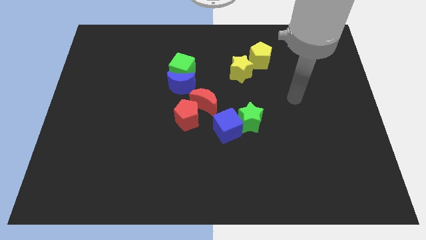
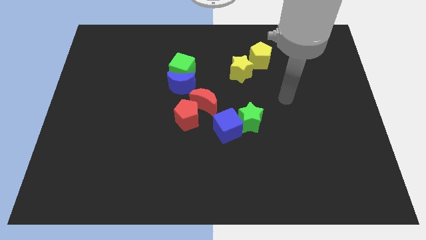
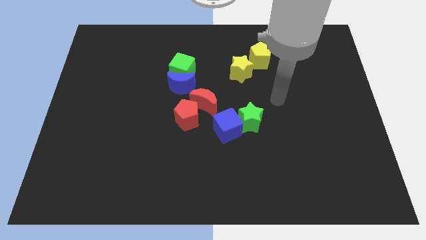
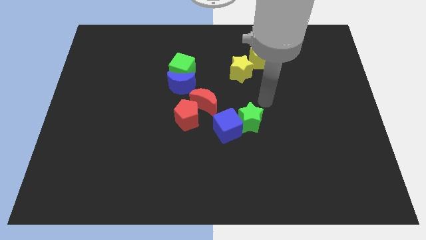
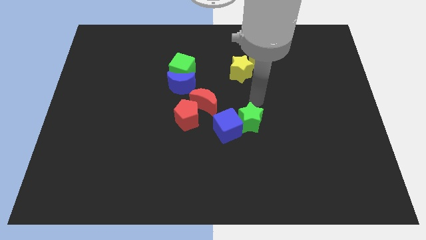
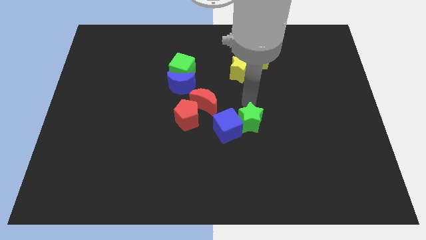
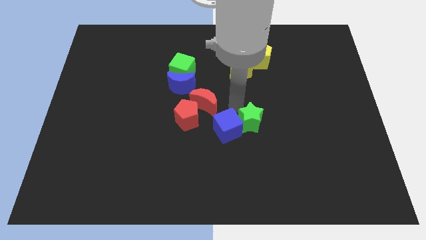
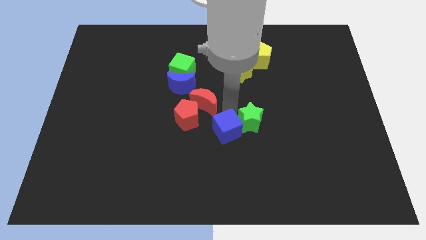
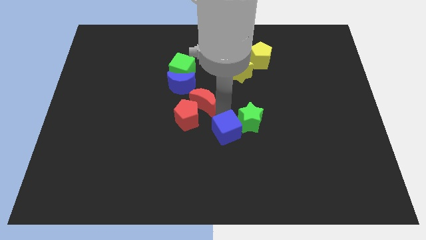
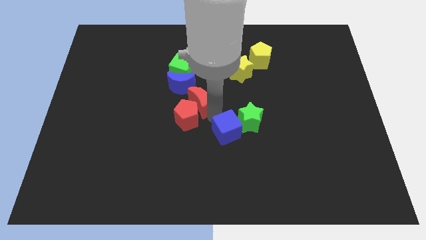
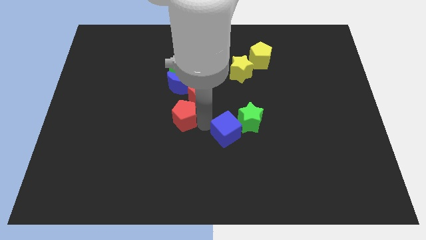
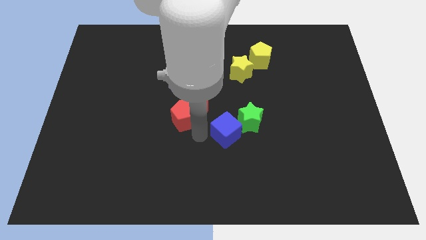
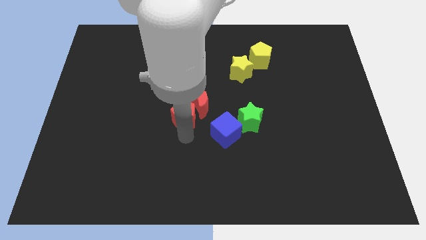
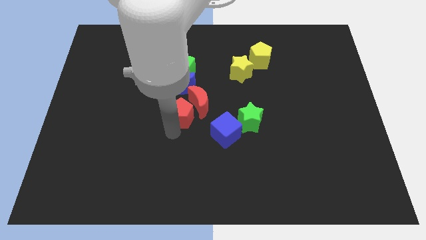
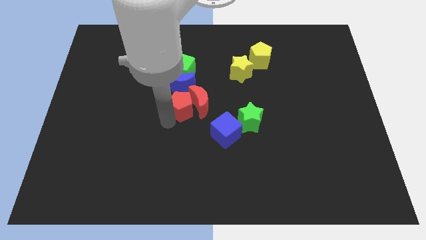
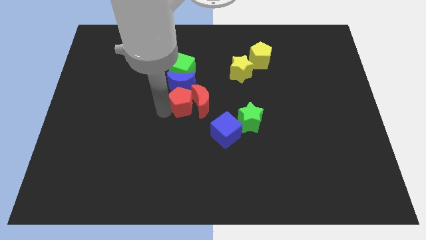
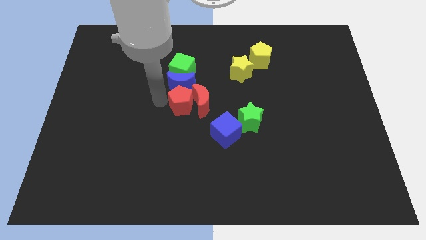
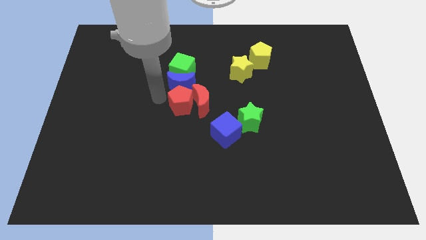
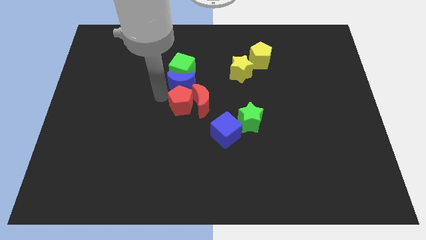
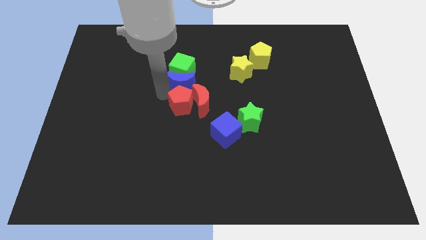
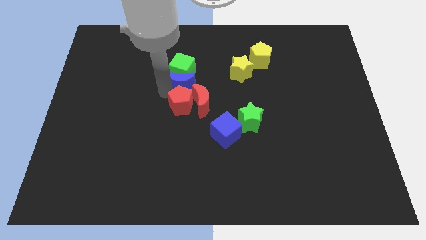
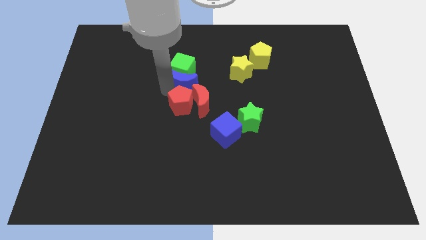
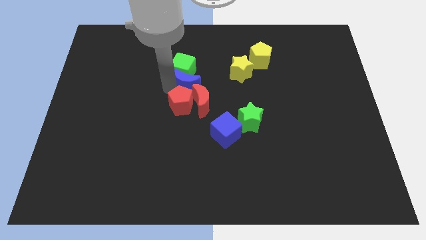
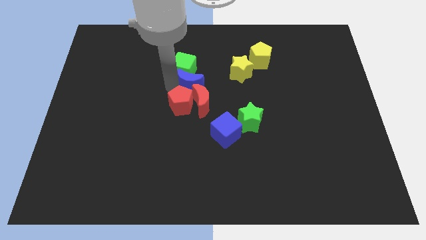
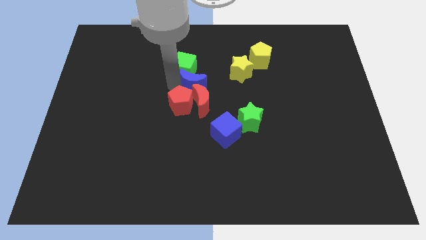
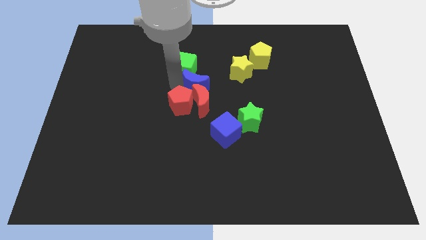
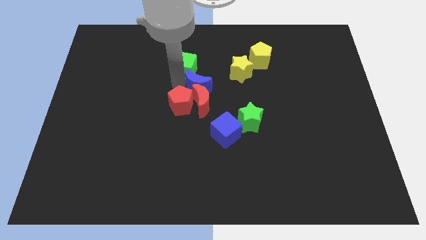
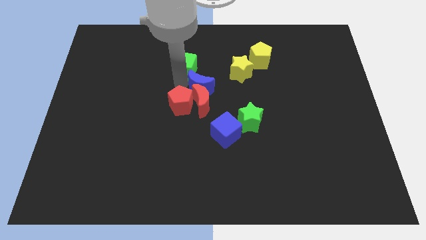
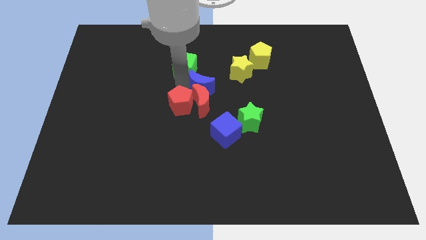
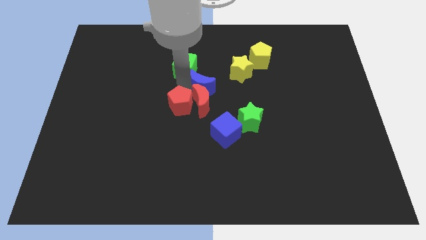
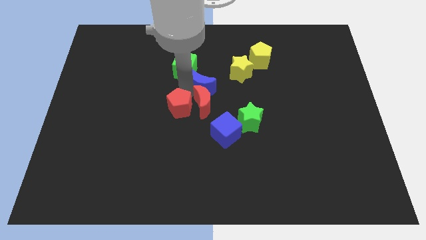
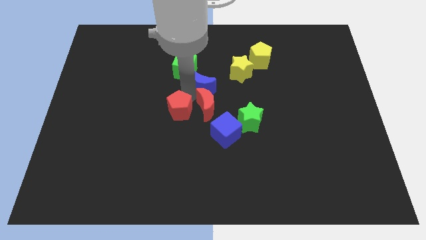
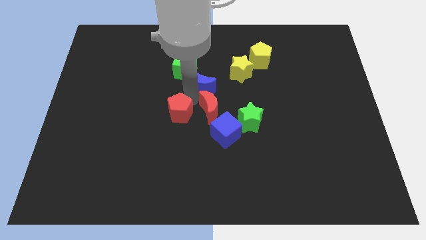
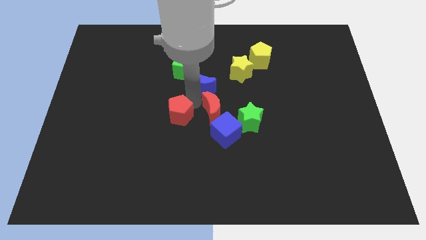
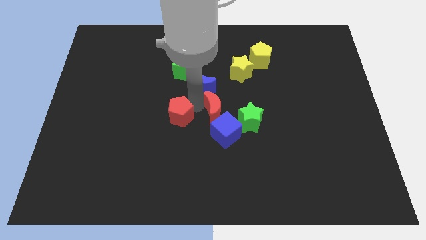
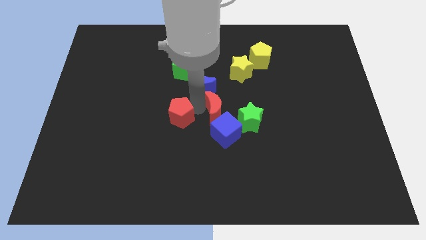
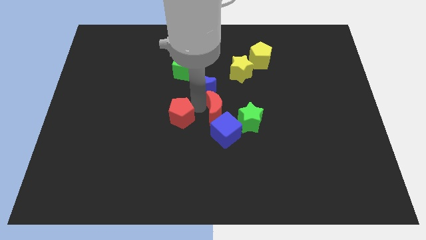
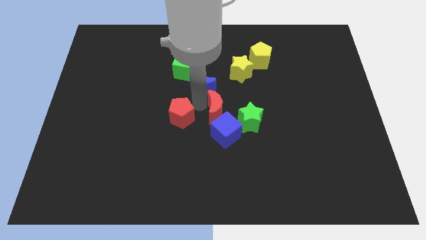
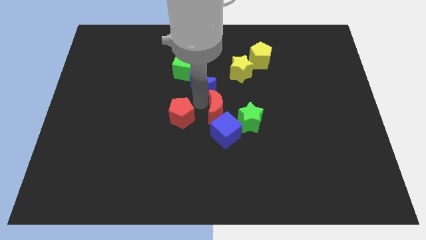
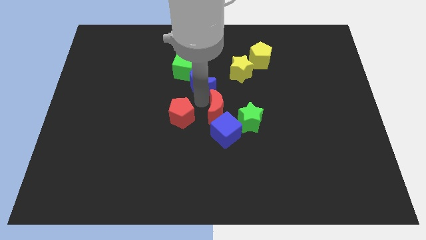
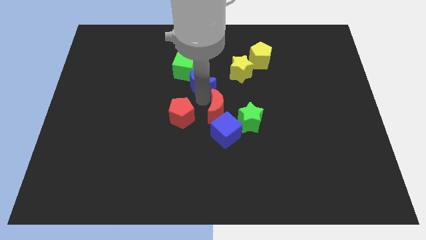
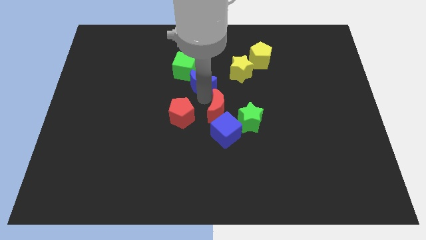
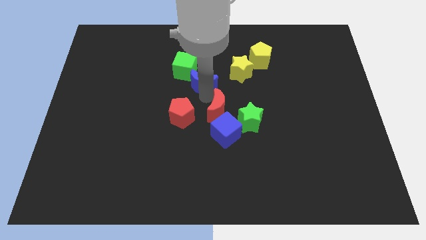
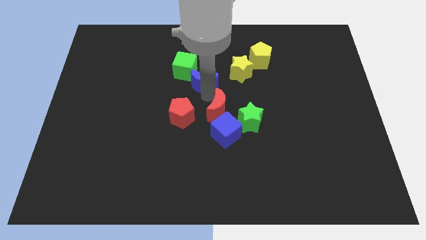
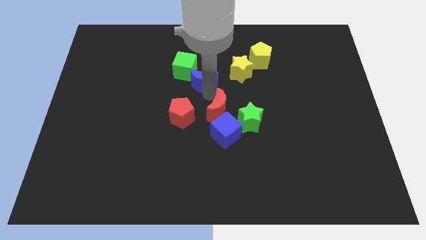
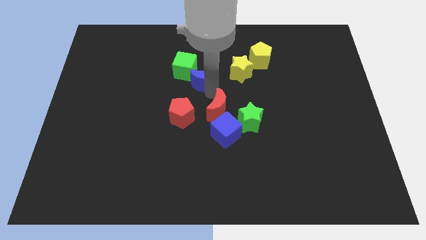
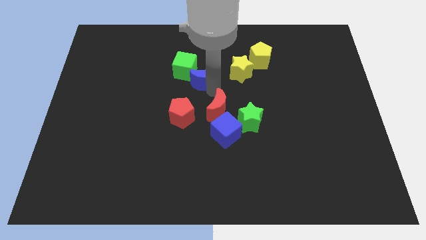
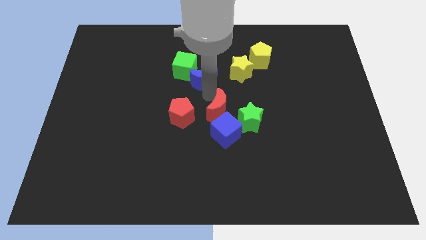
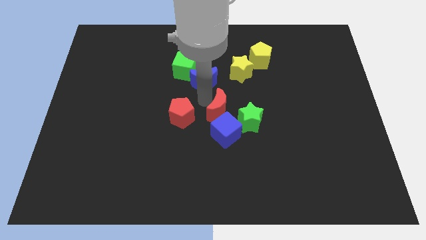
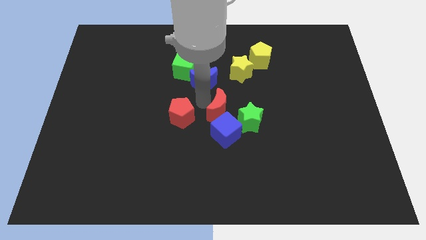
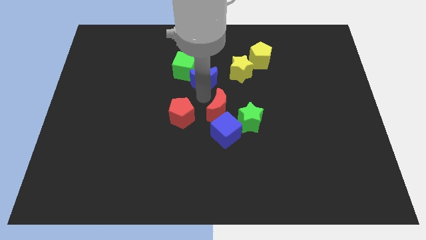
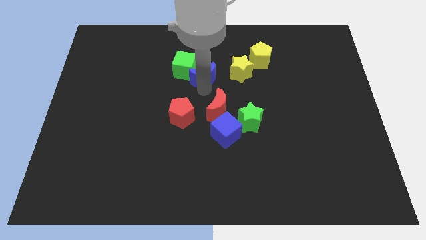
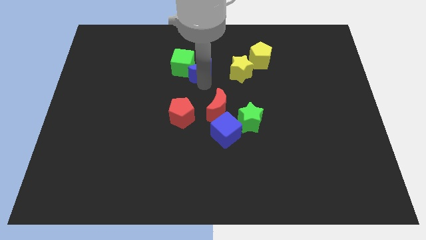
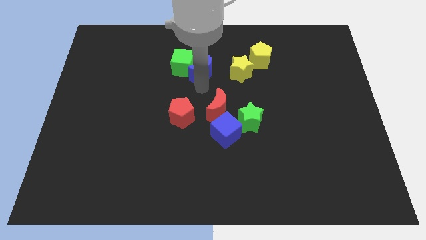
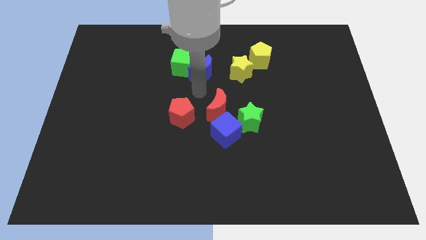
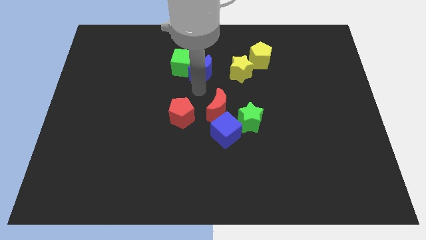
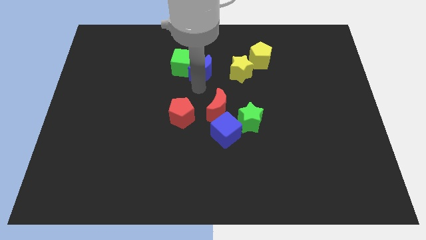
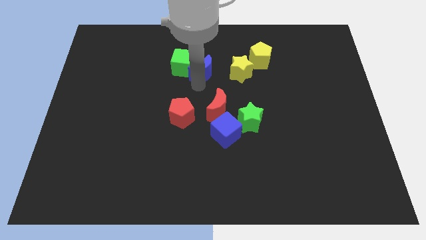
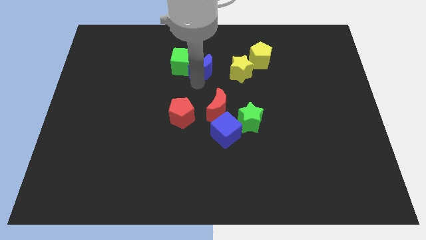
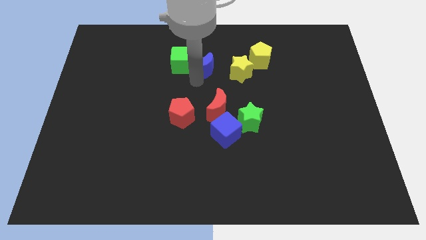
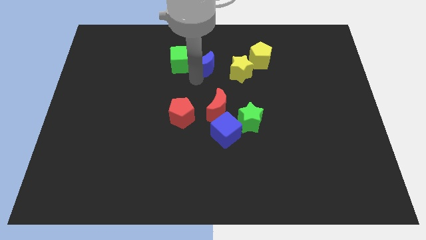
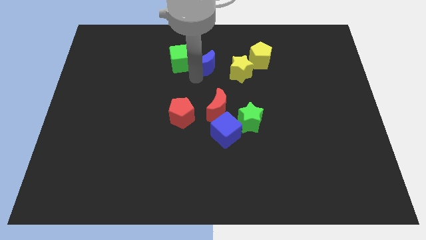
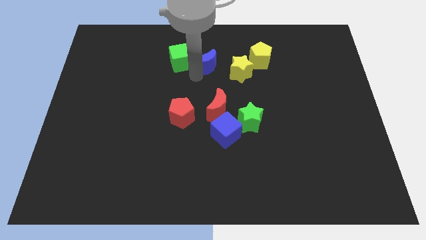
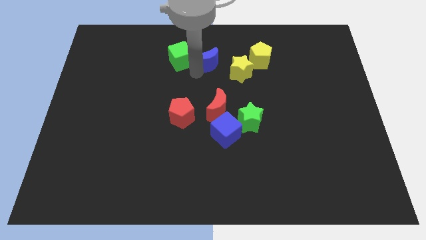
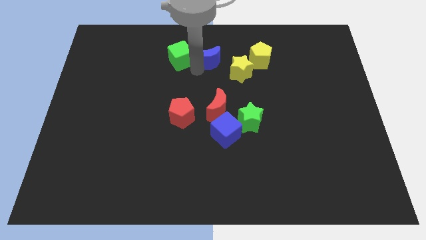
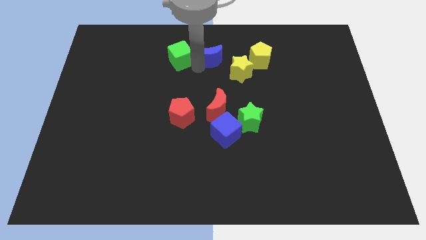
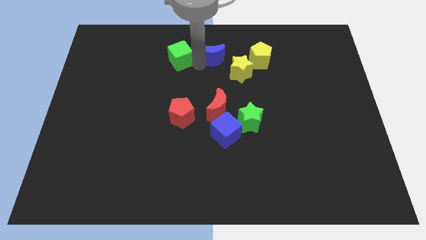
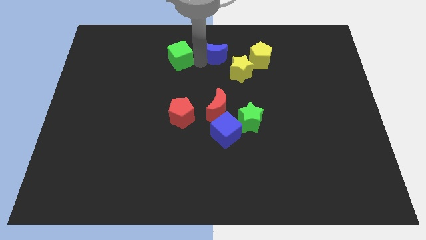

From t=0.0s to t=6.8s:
push the blue moon to the top
